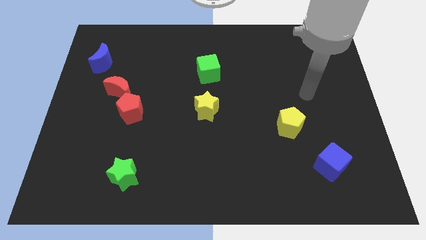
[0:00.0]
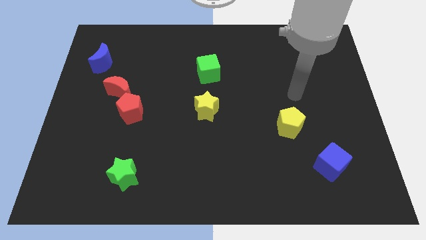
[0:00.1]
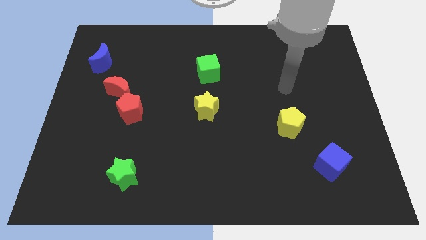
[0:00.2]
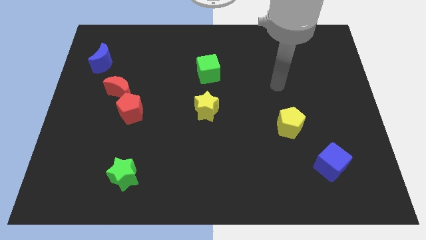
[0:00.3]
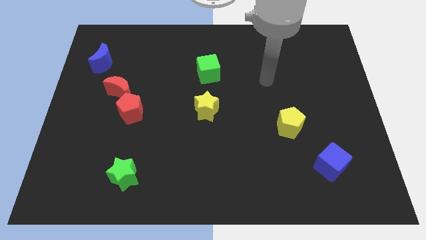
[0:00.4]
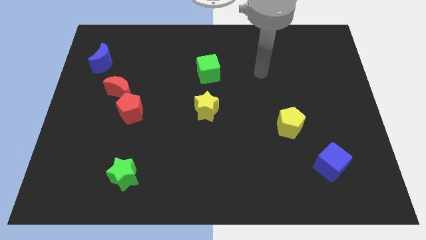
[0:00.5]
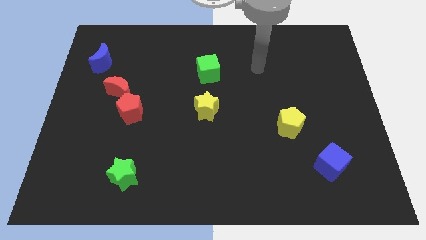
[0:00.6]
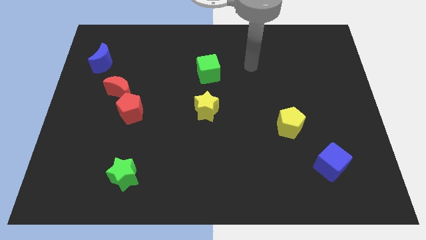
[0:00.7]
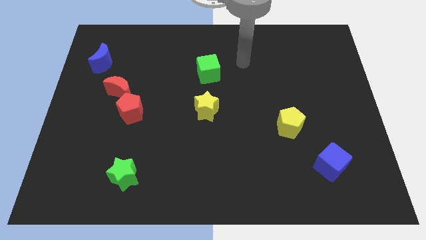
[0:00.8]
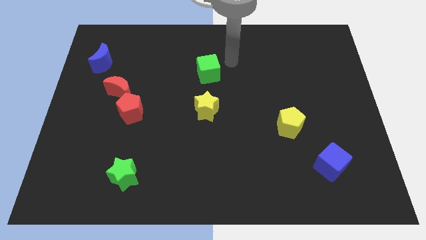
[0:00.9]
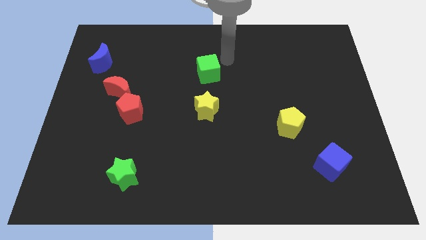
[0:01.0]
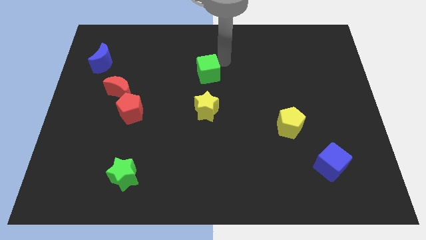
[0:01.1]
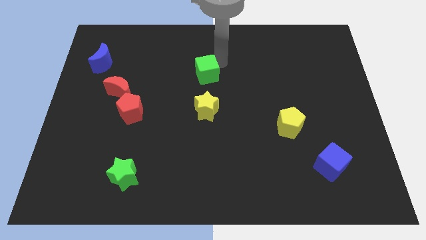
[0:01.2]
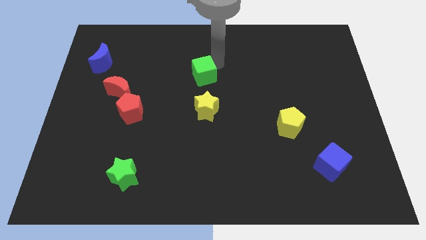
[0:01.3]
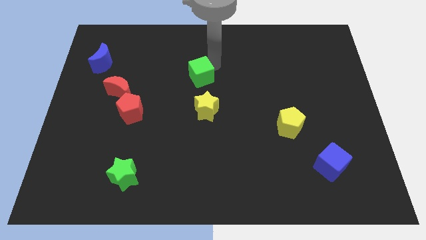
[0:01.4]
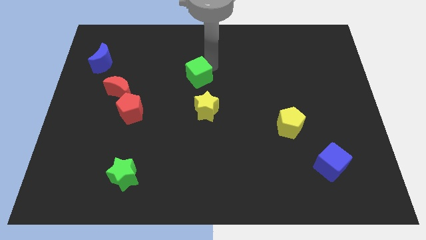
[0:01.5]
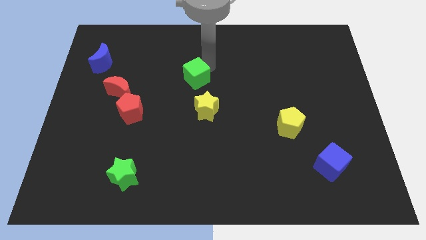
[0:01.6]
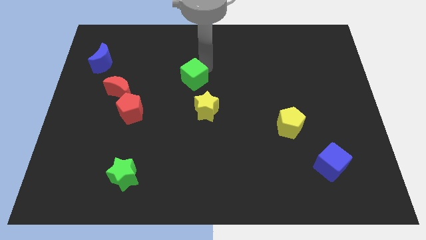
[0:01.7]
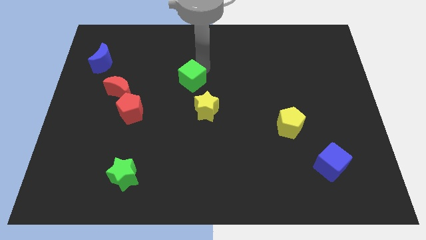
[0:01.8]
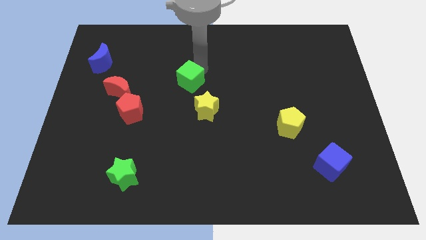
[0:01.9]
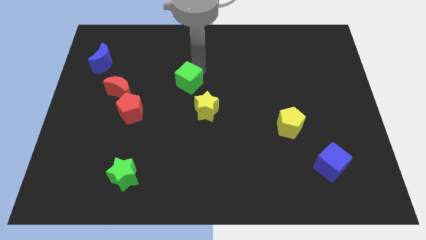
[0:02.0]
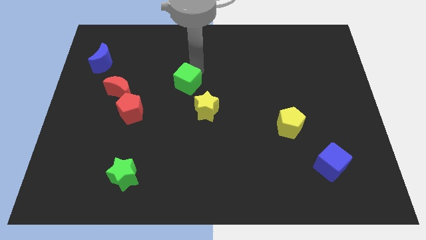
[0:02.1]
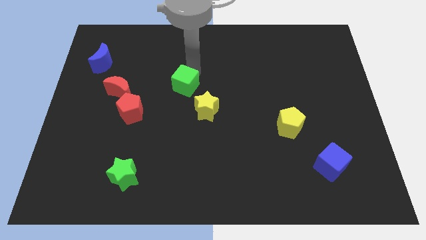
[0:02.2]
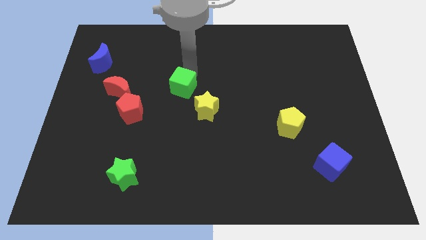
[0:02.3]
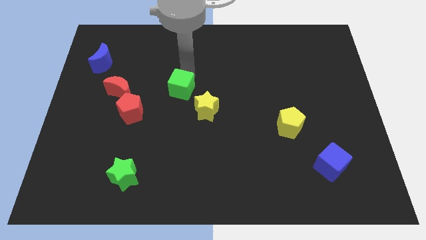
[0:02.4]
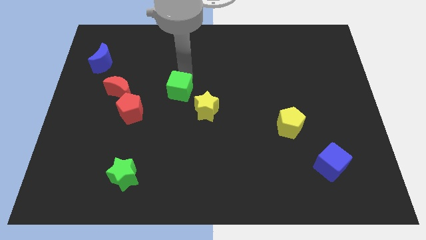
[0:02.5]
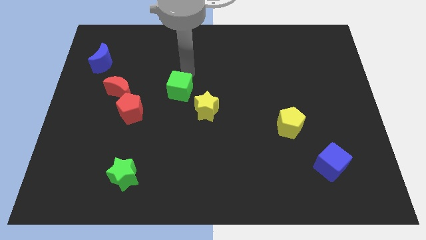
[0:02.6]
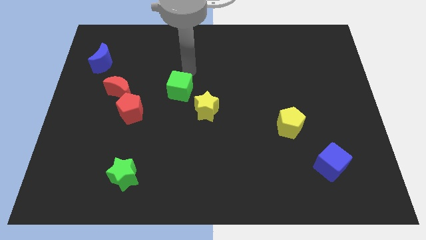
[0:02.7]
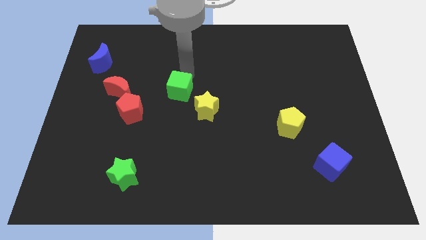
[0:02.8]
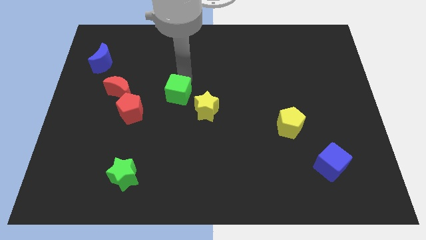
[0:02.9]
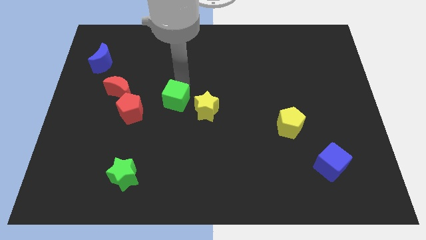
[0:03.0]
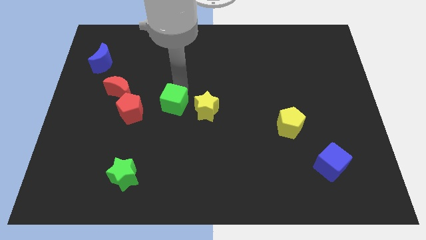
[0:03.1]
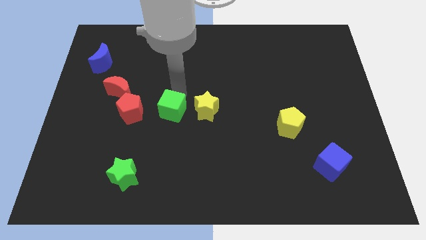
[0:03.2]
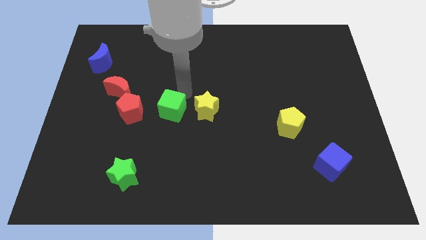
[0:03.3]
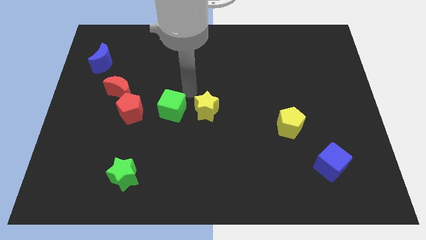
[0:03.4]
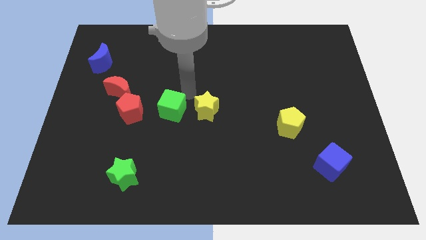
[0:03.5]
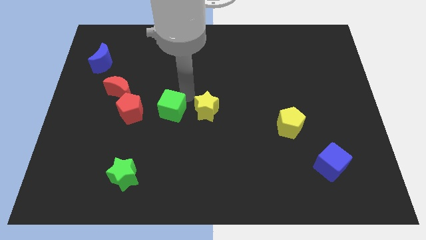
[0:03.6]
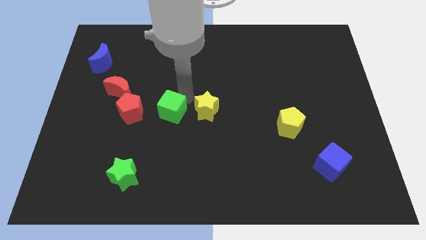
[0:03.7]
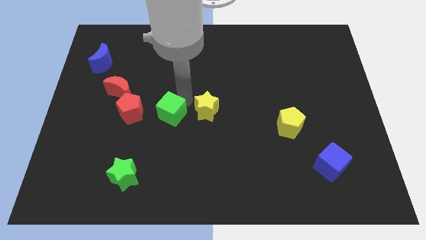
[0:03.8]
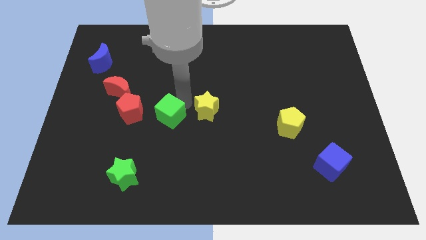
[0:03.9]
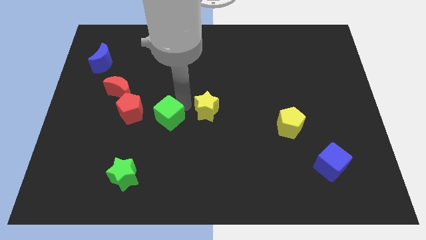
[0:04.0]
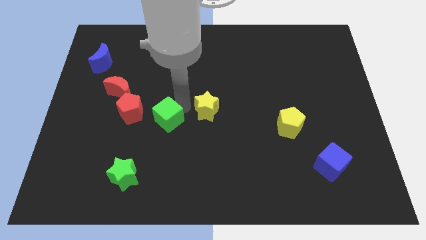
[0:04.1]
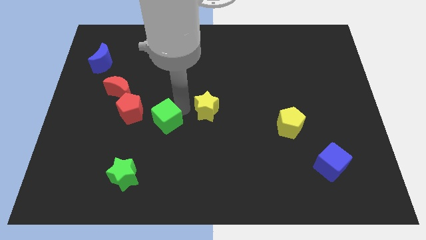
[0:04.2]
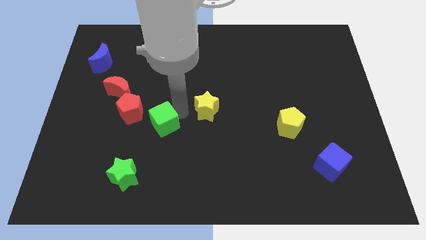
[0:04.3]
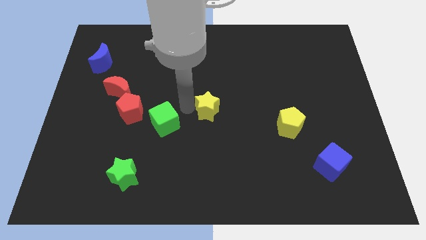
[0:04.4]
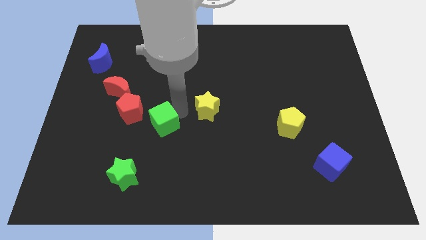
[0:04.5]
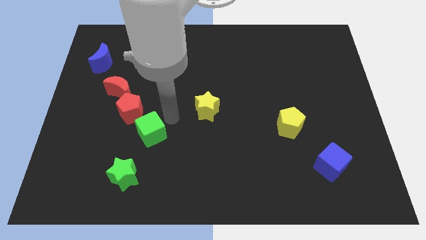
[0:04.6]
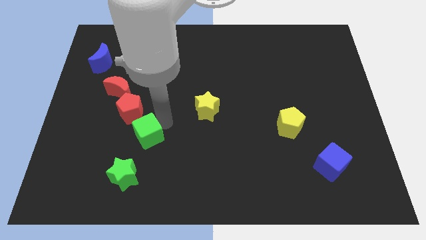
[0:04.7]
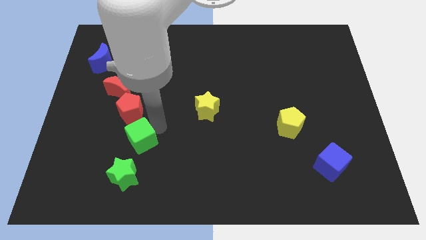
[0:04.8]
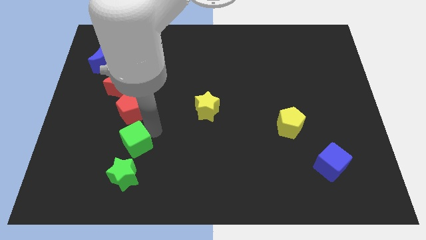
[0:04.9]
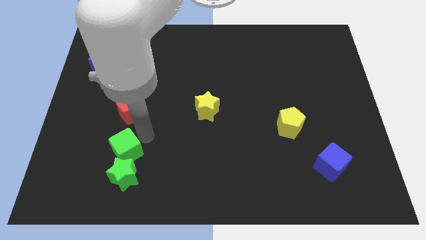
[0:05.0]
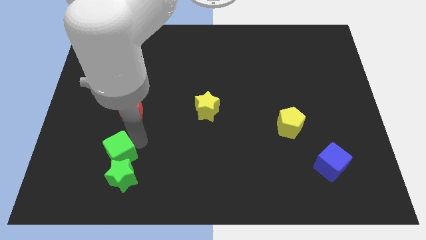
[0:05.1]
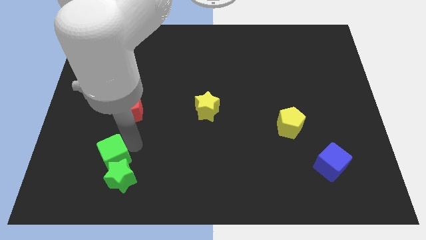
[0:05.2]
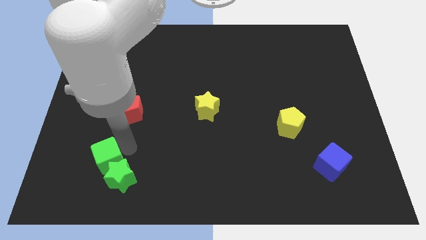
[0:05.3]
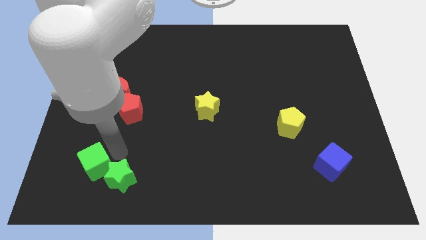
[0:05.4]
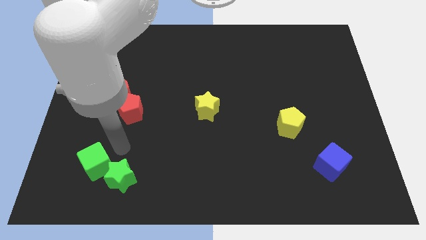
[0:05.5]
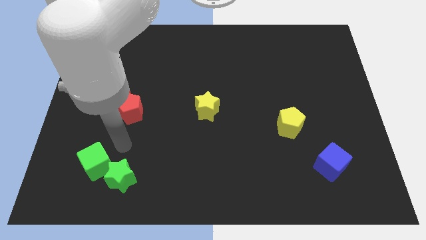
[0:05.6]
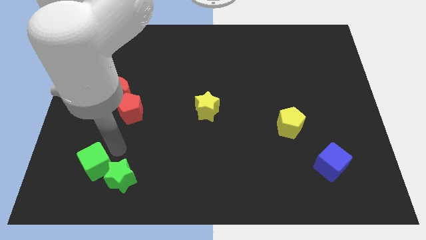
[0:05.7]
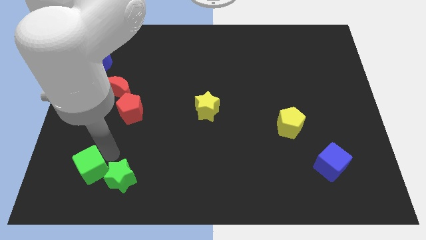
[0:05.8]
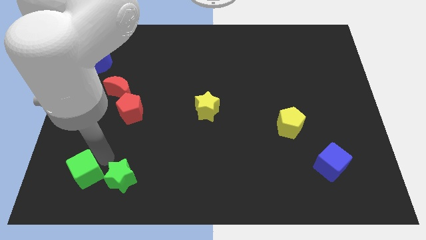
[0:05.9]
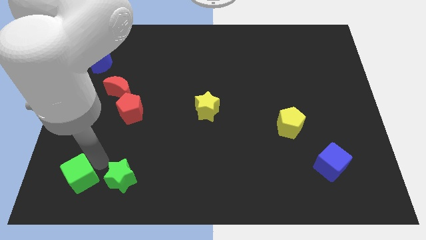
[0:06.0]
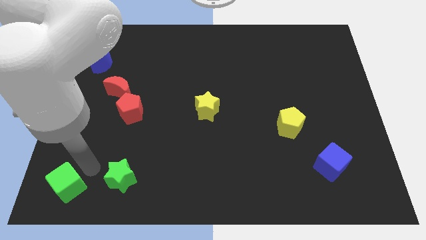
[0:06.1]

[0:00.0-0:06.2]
slide the green cube to the bottom left corner

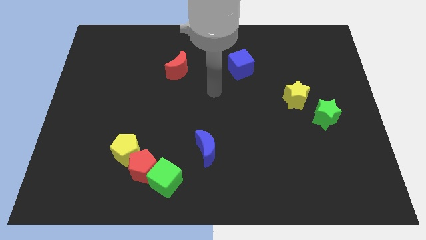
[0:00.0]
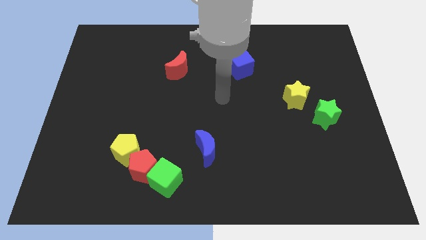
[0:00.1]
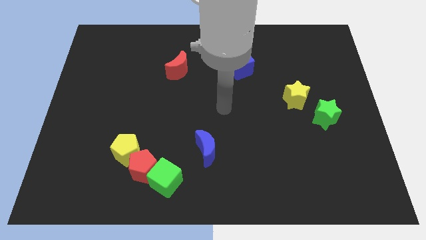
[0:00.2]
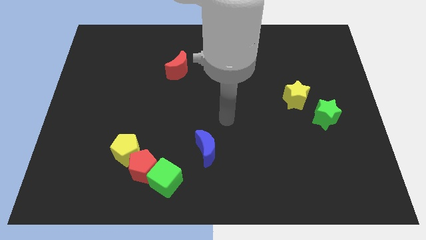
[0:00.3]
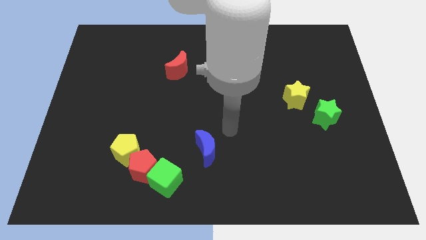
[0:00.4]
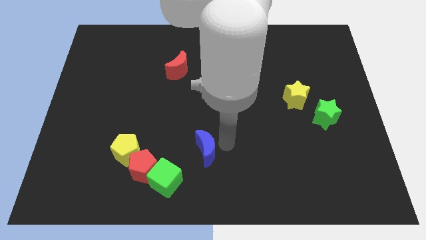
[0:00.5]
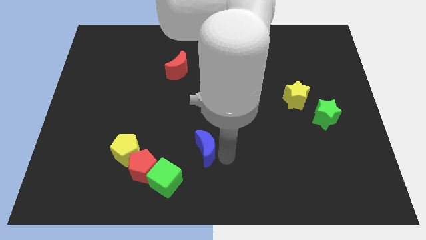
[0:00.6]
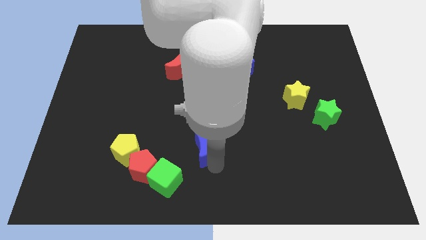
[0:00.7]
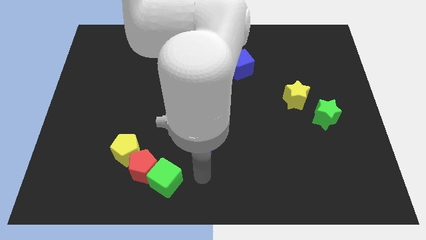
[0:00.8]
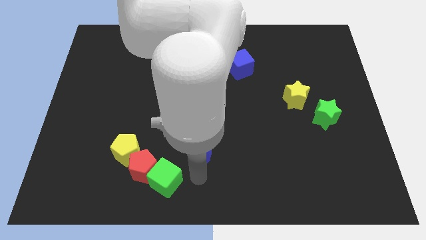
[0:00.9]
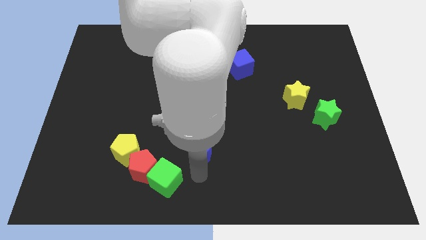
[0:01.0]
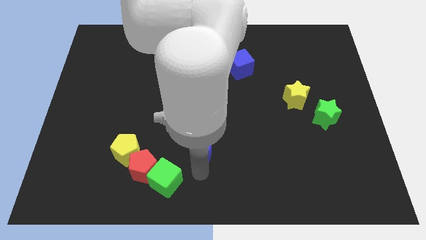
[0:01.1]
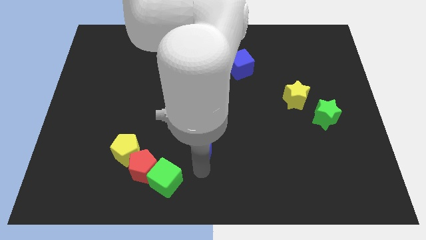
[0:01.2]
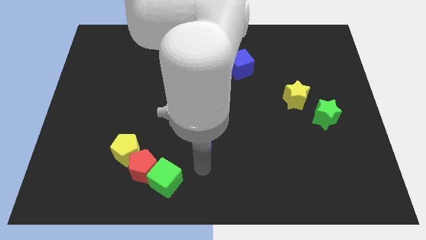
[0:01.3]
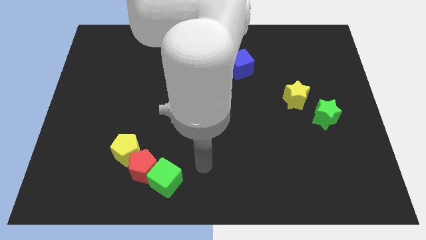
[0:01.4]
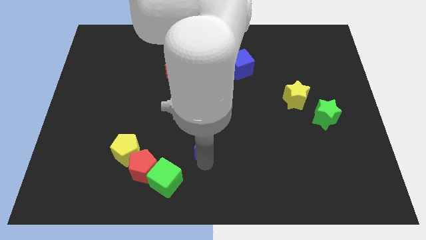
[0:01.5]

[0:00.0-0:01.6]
put the blue moon to the middle of the board

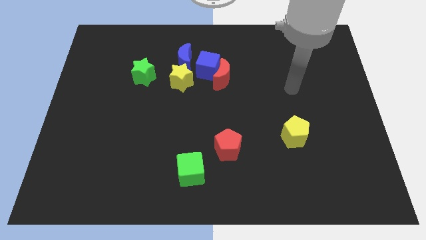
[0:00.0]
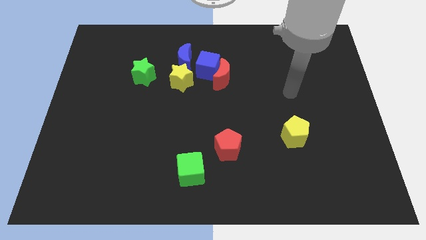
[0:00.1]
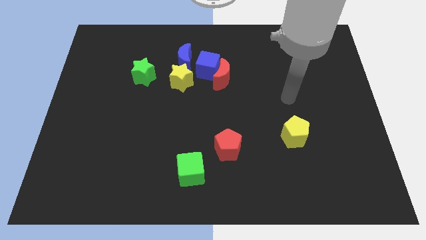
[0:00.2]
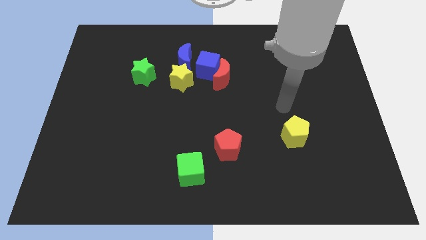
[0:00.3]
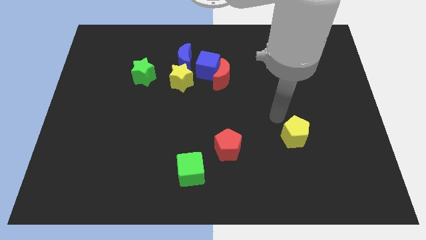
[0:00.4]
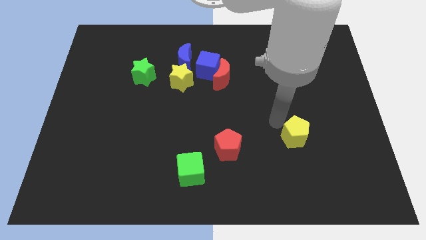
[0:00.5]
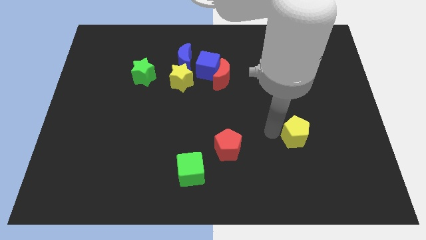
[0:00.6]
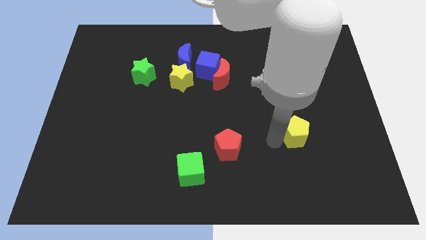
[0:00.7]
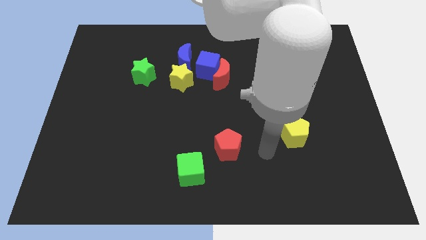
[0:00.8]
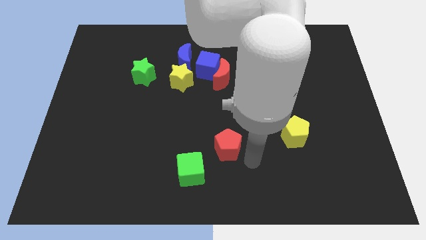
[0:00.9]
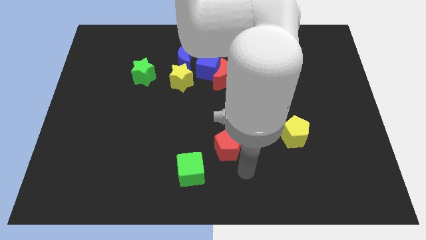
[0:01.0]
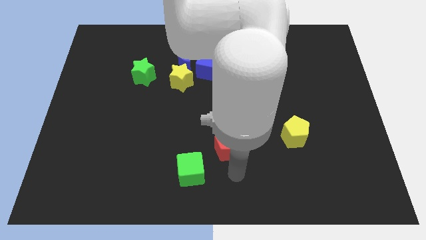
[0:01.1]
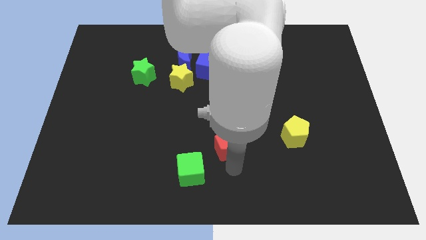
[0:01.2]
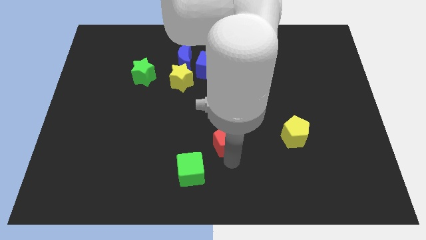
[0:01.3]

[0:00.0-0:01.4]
move the red pentagon to the middle
